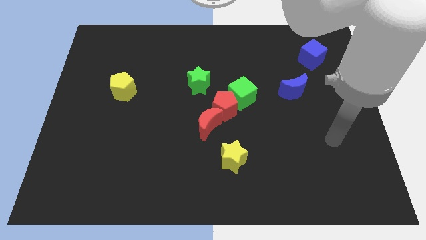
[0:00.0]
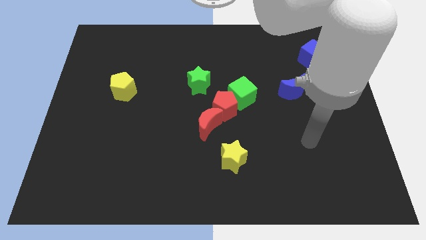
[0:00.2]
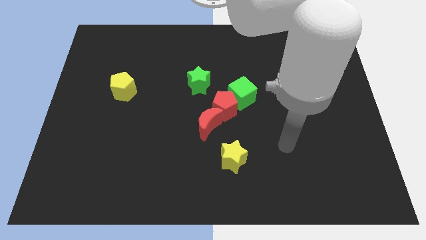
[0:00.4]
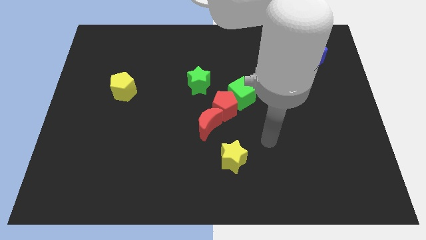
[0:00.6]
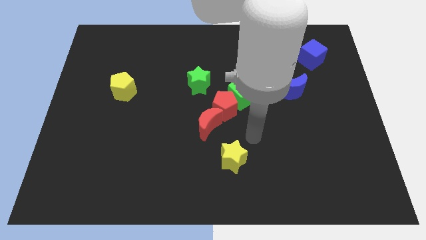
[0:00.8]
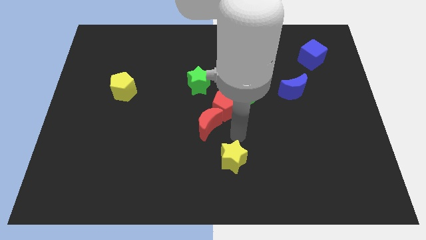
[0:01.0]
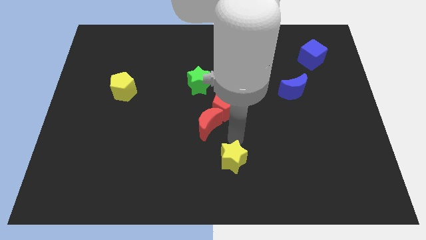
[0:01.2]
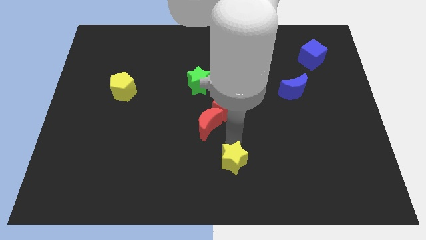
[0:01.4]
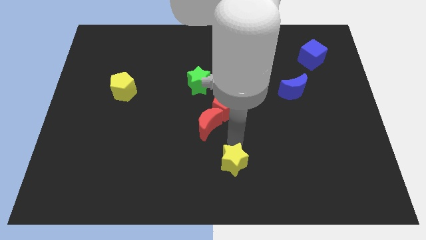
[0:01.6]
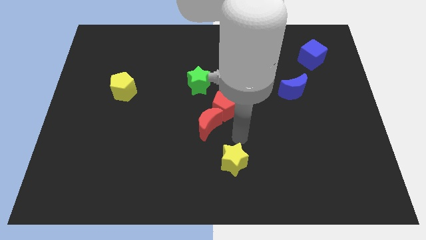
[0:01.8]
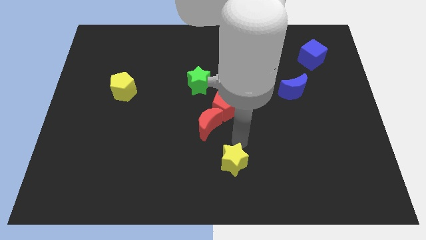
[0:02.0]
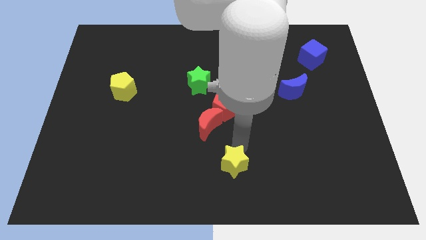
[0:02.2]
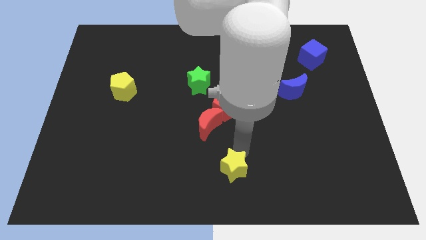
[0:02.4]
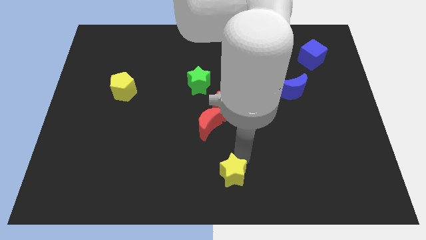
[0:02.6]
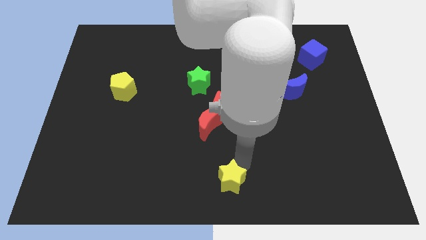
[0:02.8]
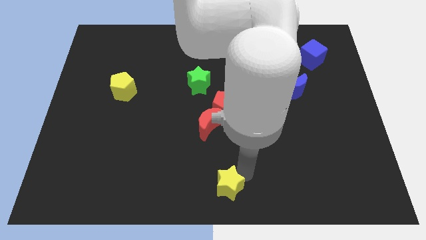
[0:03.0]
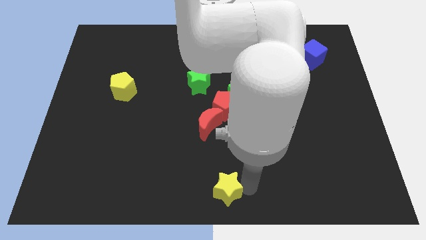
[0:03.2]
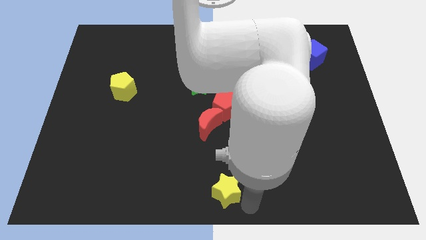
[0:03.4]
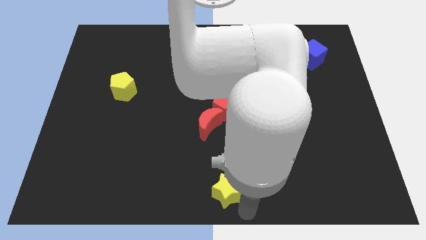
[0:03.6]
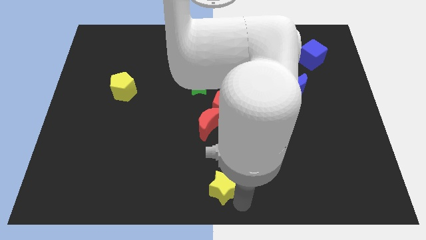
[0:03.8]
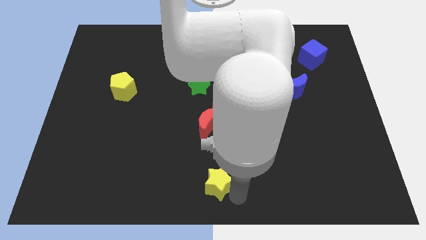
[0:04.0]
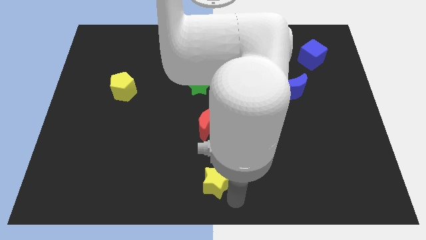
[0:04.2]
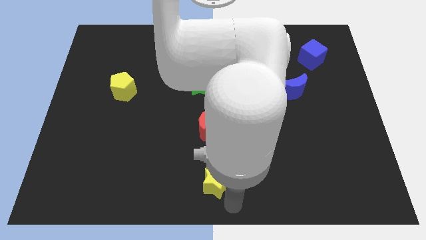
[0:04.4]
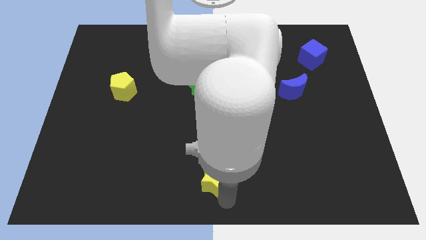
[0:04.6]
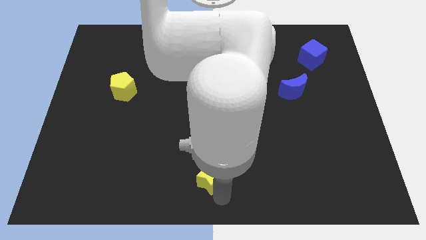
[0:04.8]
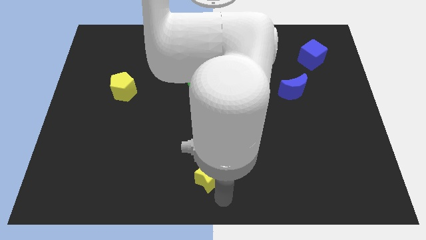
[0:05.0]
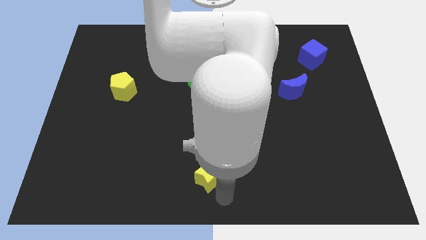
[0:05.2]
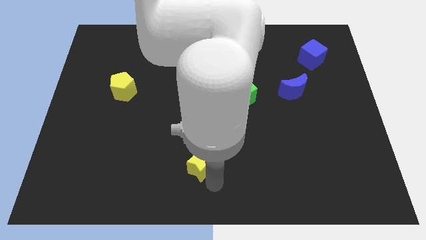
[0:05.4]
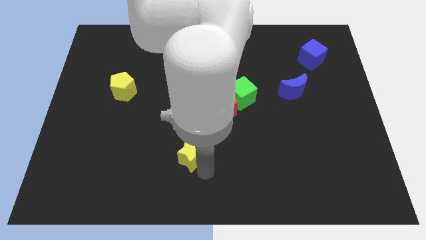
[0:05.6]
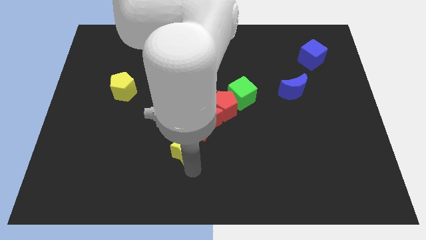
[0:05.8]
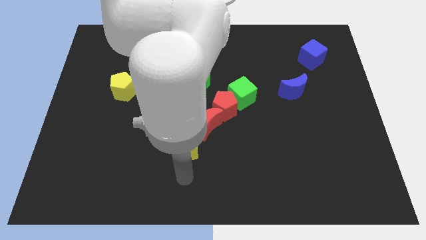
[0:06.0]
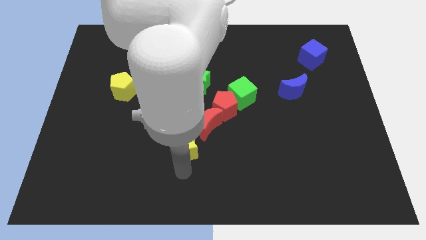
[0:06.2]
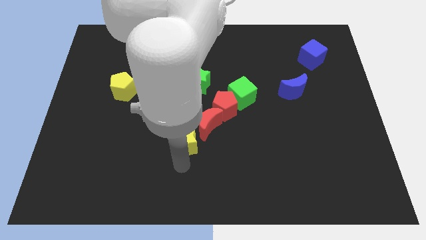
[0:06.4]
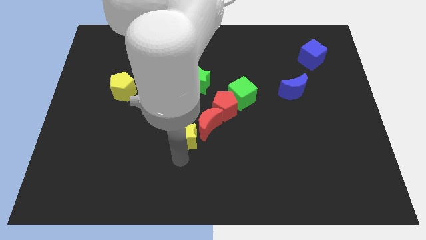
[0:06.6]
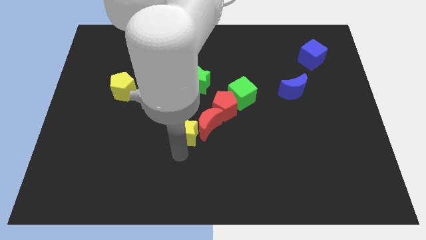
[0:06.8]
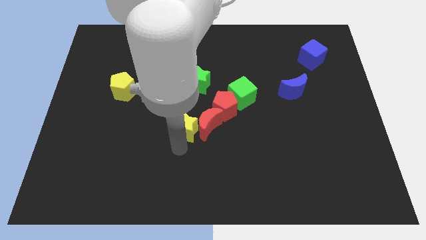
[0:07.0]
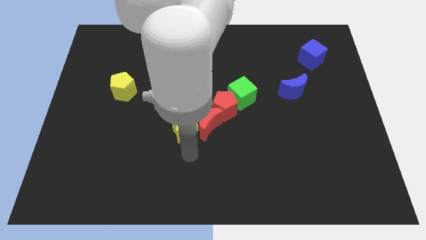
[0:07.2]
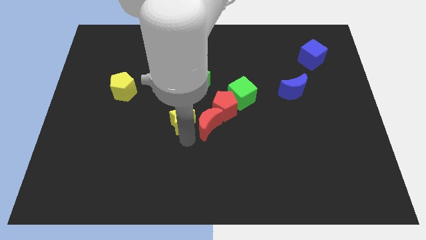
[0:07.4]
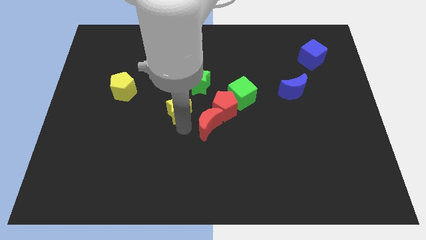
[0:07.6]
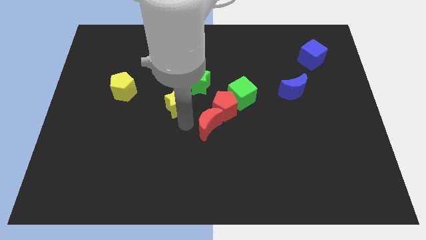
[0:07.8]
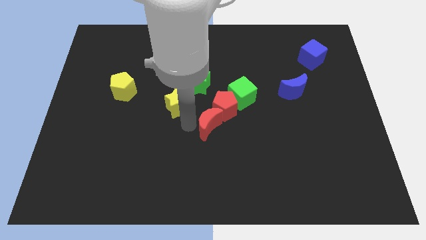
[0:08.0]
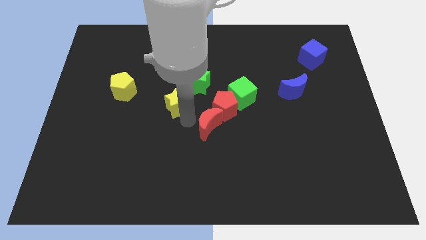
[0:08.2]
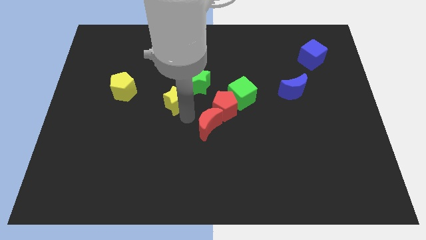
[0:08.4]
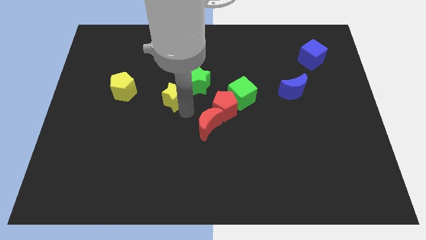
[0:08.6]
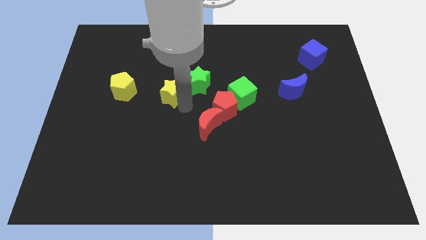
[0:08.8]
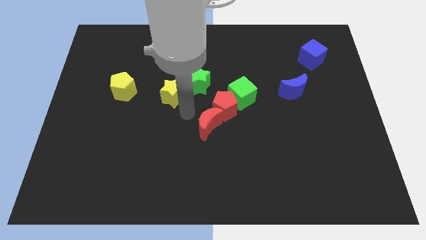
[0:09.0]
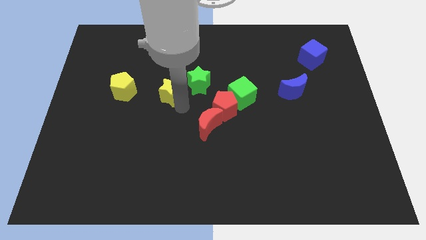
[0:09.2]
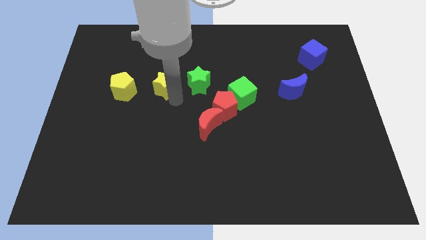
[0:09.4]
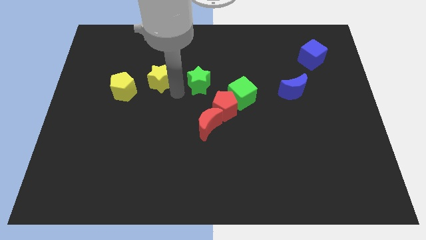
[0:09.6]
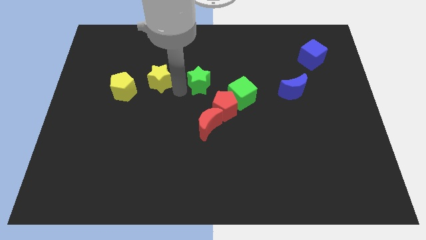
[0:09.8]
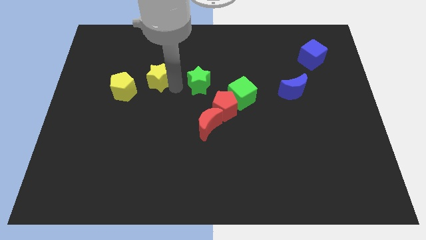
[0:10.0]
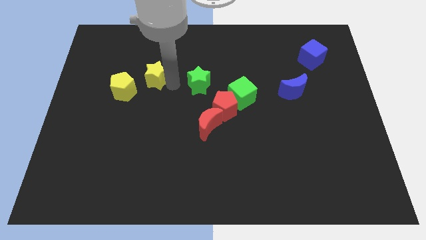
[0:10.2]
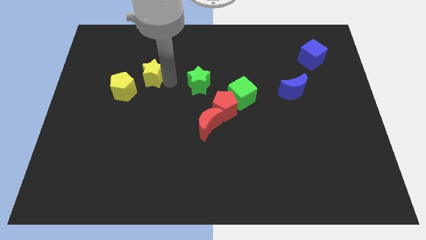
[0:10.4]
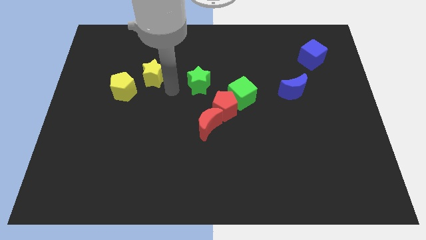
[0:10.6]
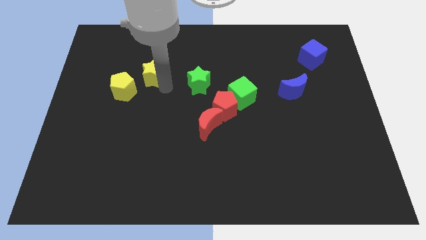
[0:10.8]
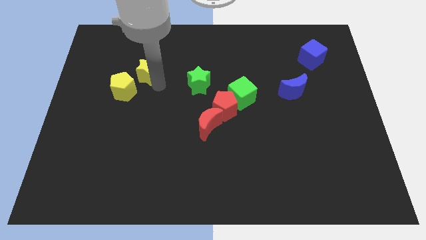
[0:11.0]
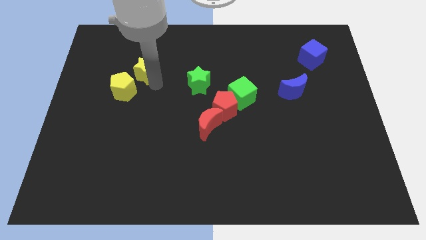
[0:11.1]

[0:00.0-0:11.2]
put the yellow star to the top side of the yellow pentagon

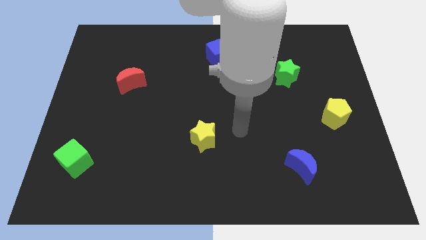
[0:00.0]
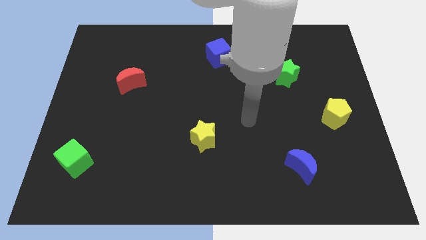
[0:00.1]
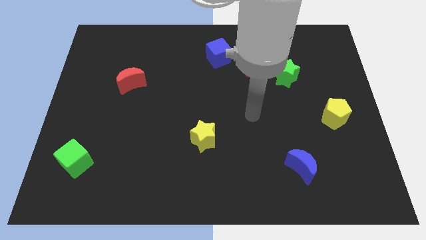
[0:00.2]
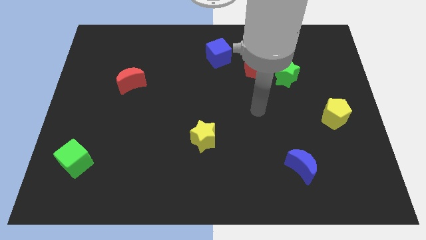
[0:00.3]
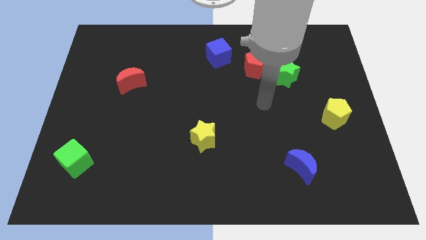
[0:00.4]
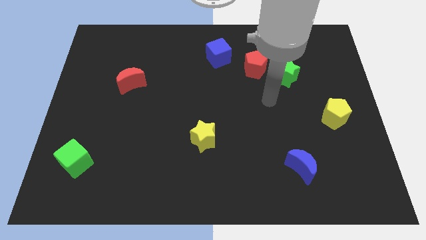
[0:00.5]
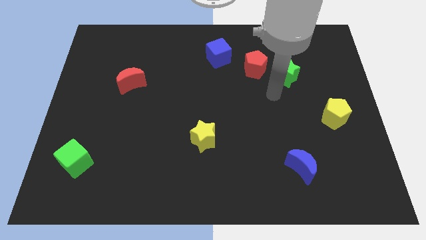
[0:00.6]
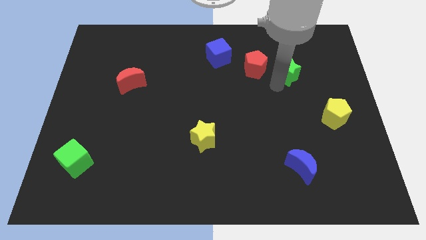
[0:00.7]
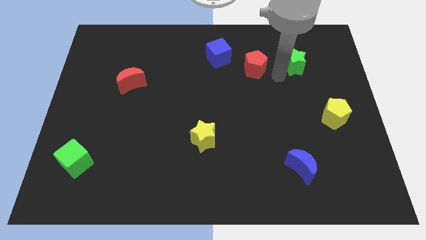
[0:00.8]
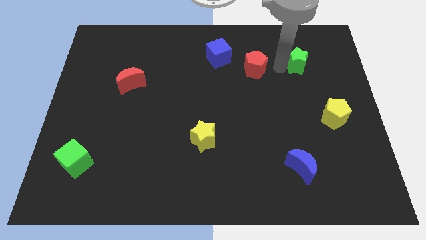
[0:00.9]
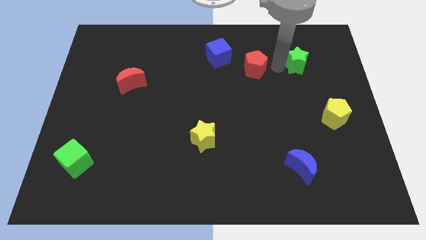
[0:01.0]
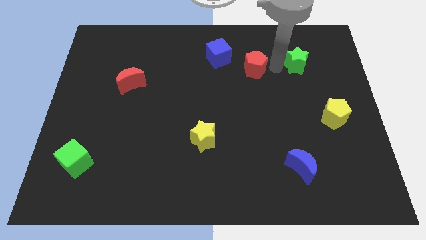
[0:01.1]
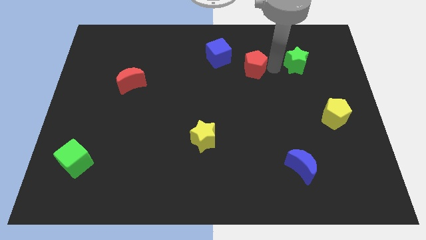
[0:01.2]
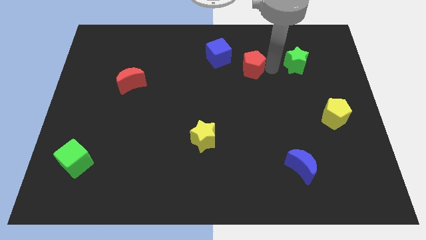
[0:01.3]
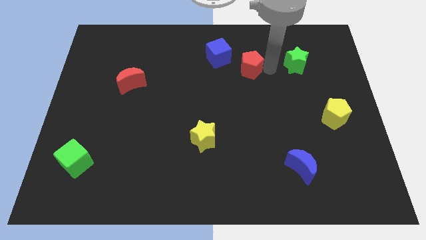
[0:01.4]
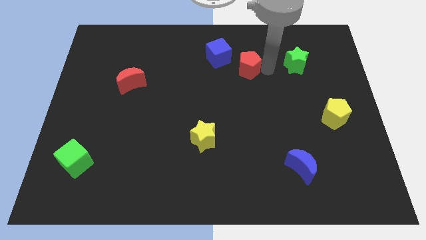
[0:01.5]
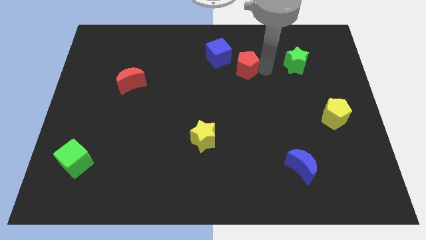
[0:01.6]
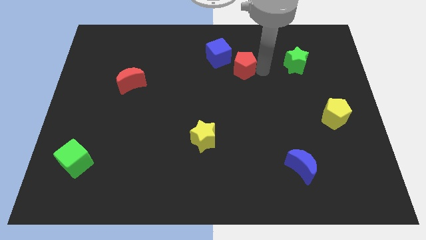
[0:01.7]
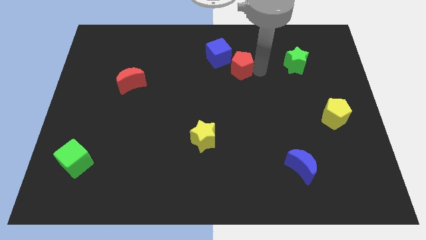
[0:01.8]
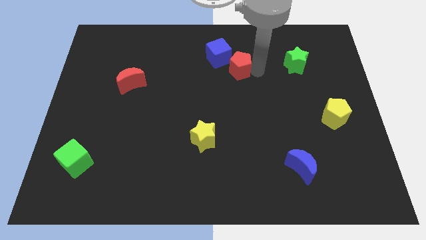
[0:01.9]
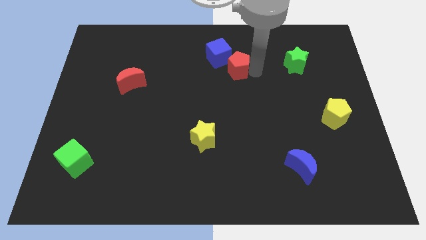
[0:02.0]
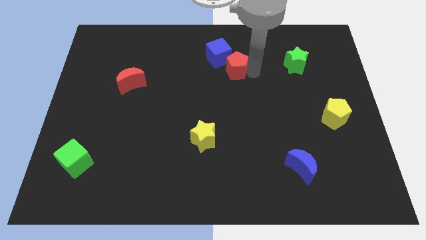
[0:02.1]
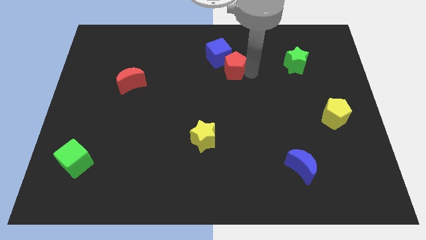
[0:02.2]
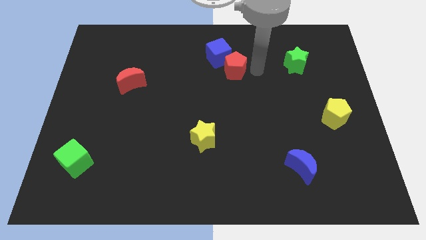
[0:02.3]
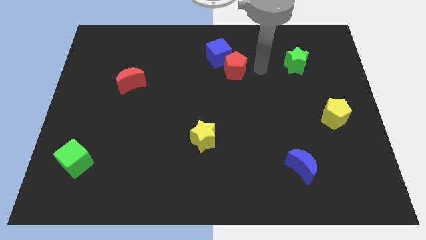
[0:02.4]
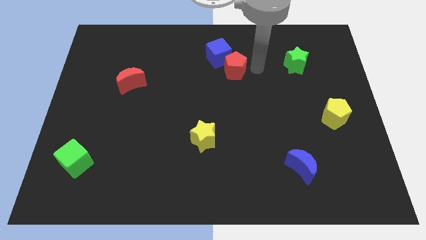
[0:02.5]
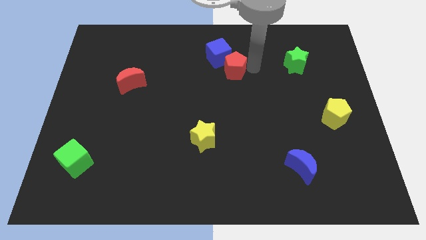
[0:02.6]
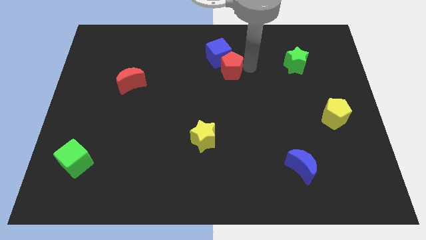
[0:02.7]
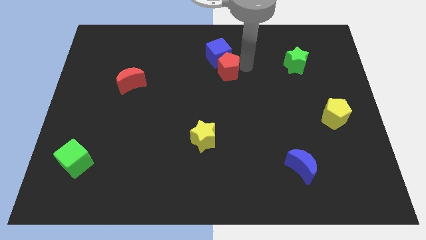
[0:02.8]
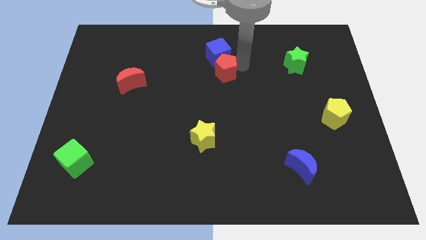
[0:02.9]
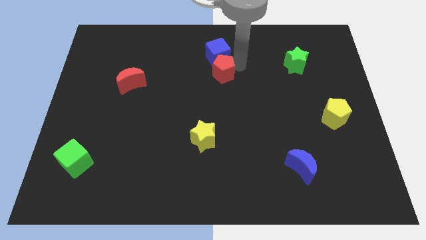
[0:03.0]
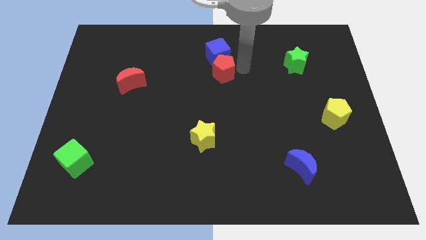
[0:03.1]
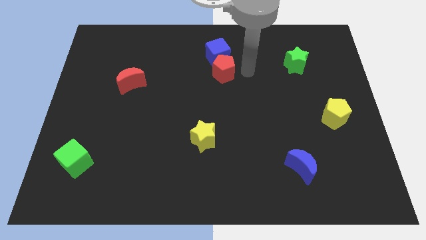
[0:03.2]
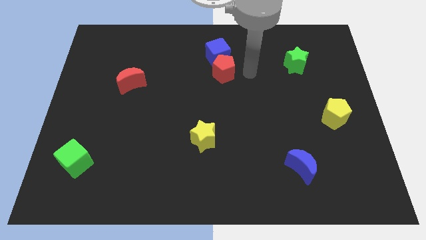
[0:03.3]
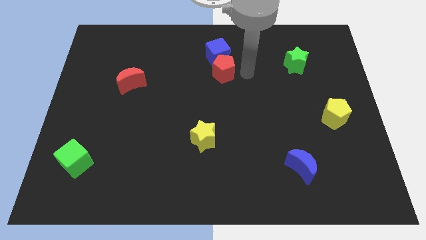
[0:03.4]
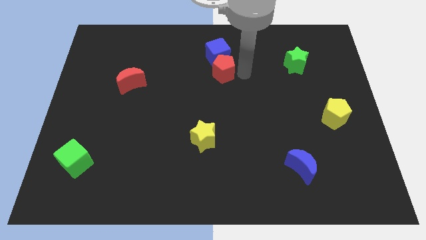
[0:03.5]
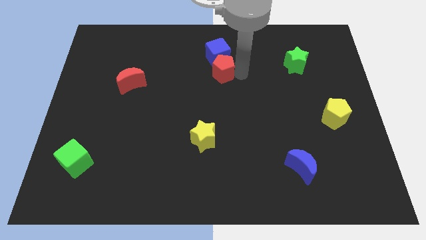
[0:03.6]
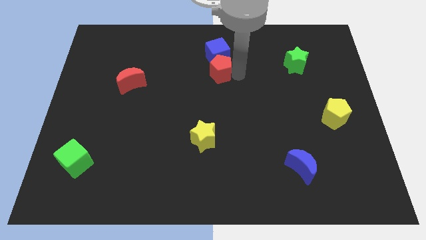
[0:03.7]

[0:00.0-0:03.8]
put the red pentagon to the bottom left side of the blue cube
